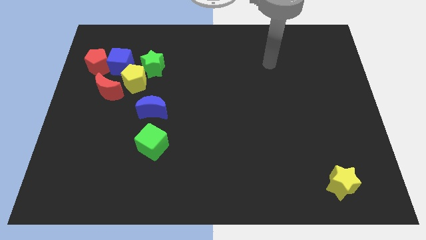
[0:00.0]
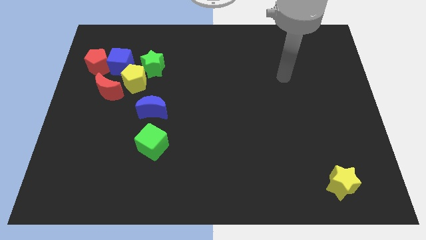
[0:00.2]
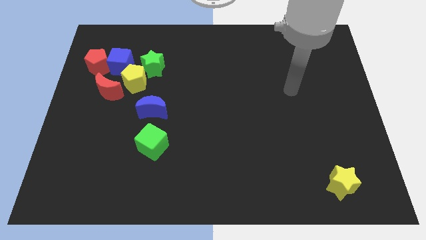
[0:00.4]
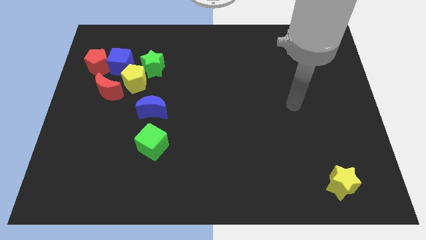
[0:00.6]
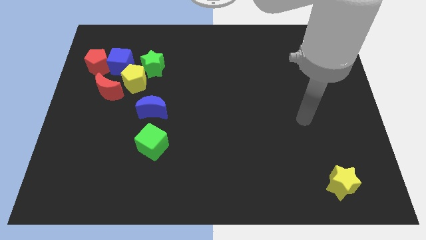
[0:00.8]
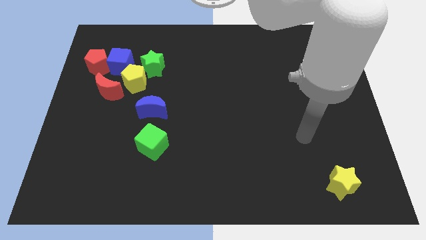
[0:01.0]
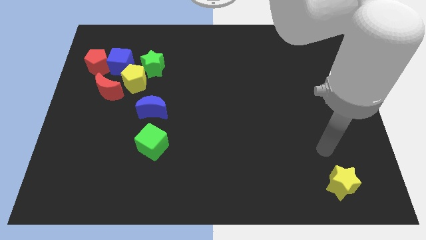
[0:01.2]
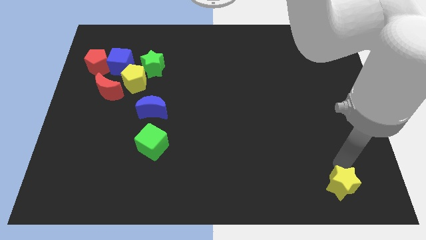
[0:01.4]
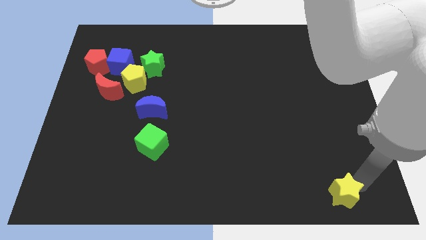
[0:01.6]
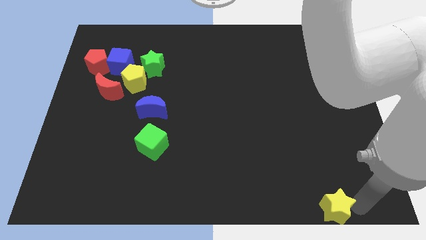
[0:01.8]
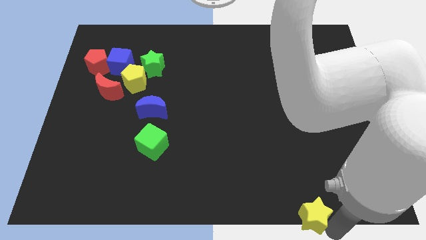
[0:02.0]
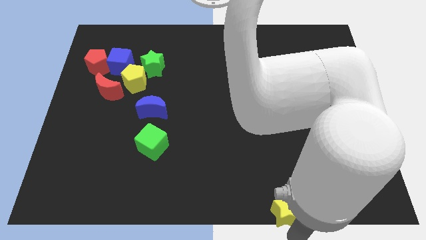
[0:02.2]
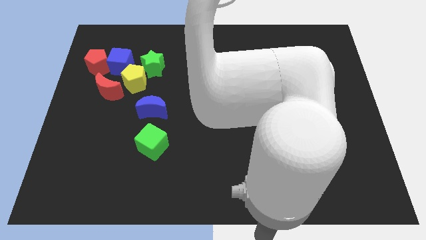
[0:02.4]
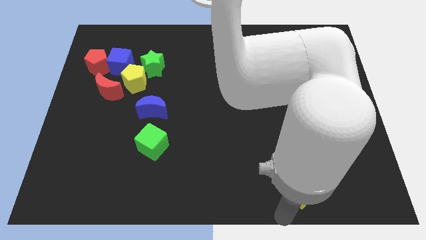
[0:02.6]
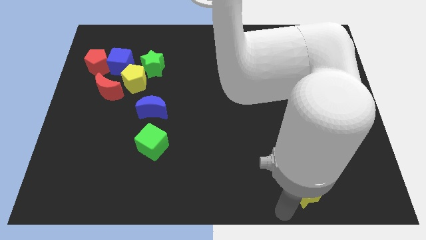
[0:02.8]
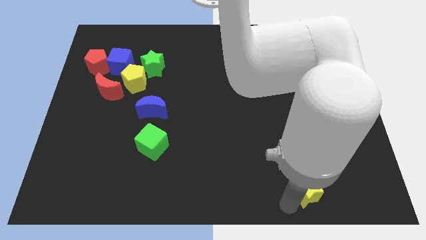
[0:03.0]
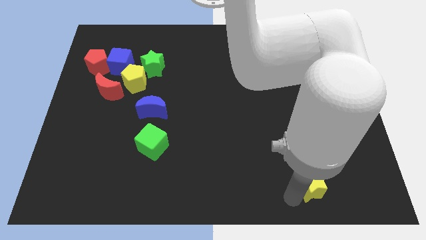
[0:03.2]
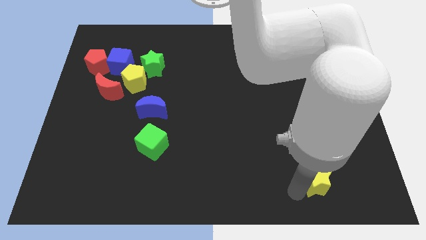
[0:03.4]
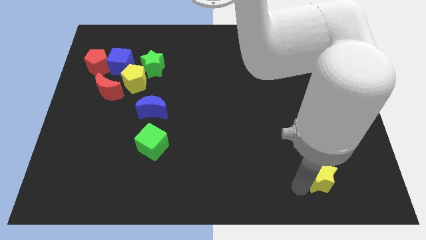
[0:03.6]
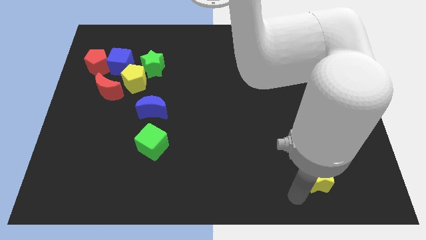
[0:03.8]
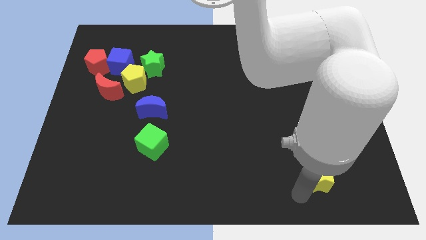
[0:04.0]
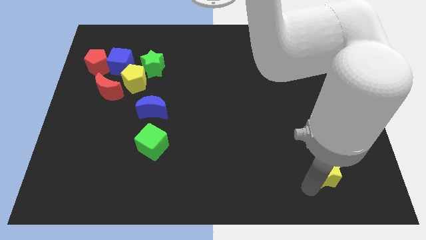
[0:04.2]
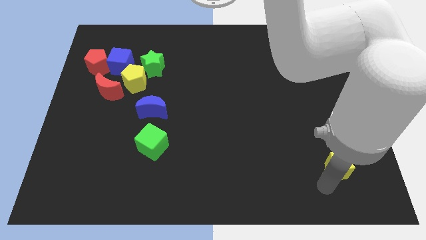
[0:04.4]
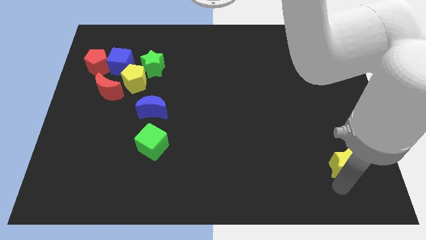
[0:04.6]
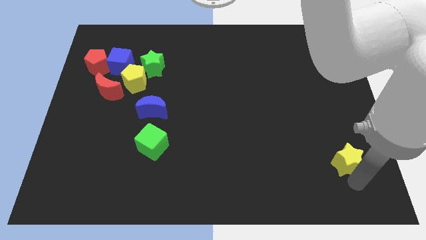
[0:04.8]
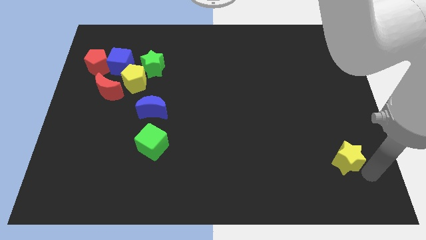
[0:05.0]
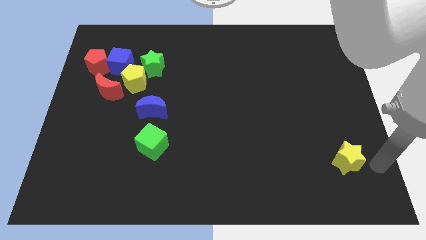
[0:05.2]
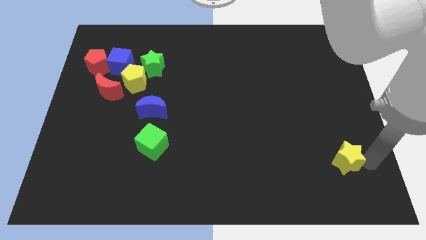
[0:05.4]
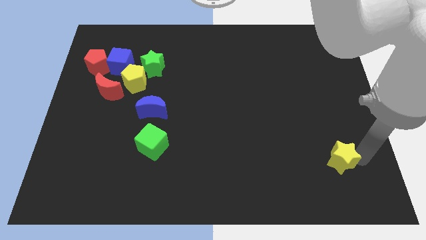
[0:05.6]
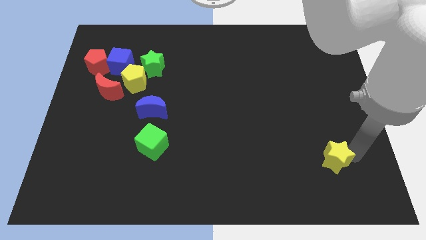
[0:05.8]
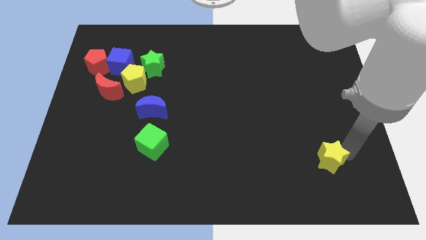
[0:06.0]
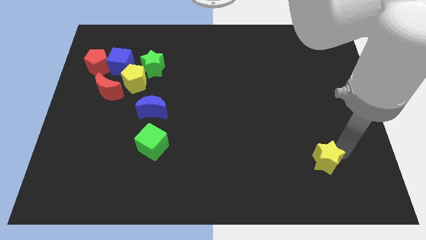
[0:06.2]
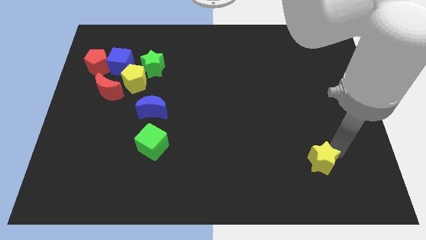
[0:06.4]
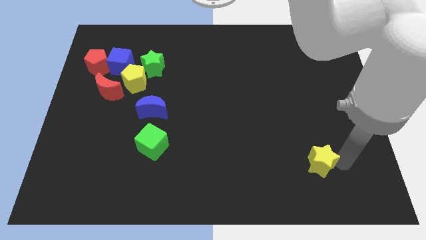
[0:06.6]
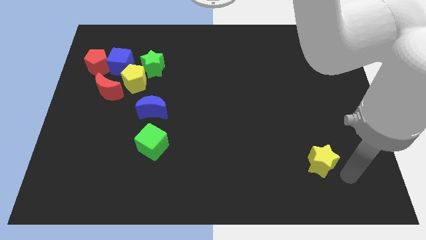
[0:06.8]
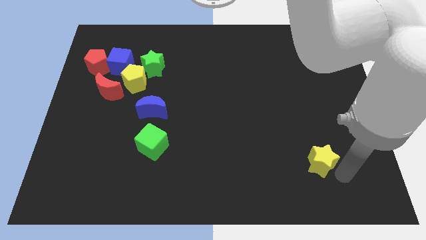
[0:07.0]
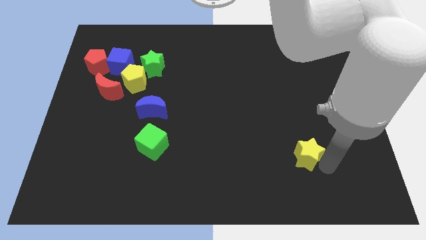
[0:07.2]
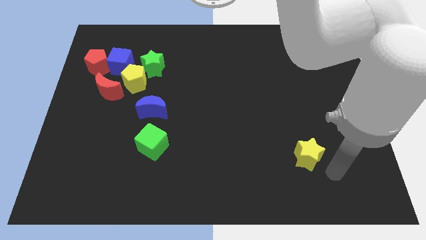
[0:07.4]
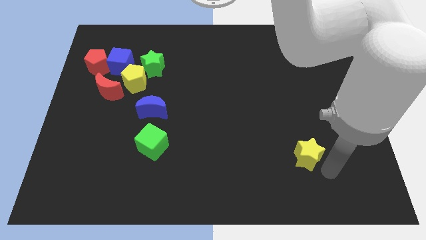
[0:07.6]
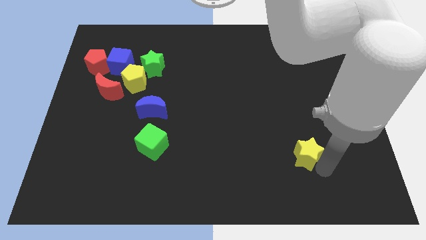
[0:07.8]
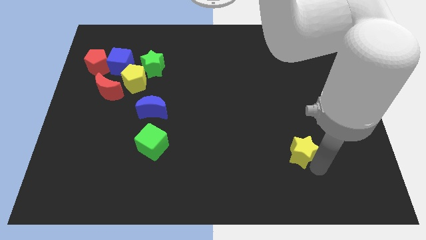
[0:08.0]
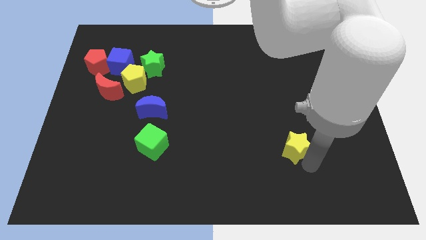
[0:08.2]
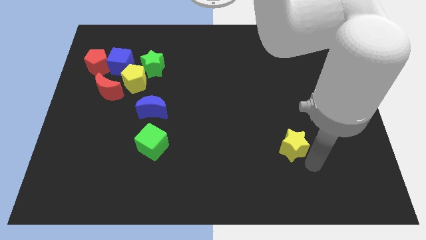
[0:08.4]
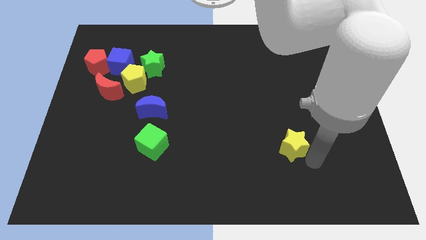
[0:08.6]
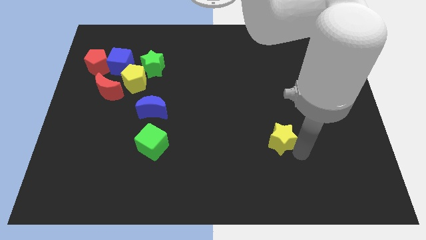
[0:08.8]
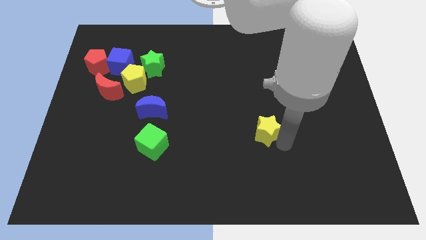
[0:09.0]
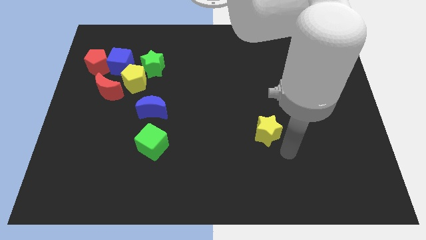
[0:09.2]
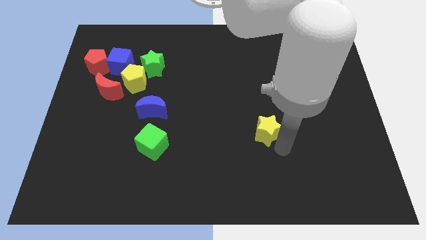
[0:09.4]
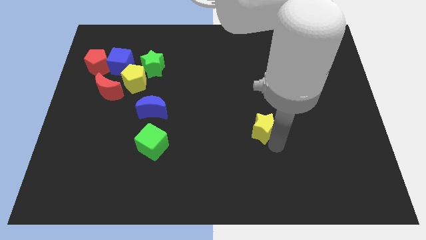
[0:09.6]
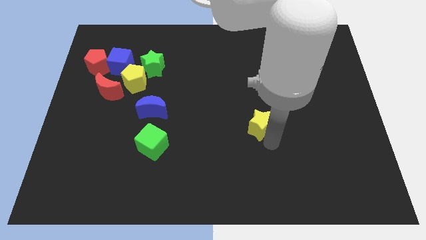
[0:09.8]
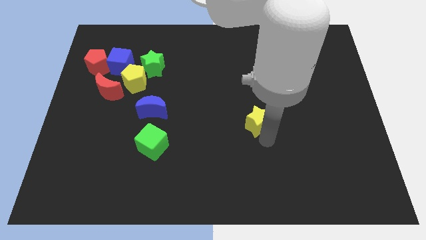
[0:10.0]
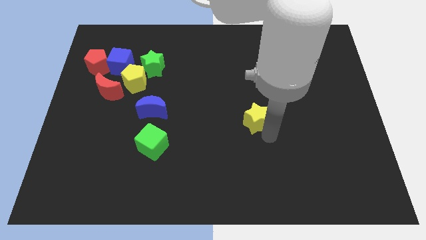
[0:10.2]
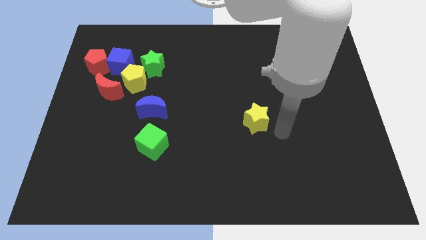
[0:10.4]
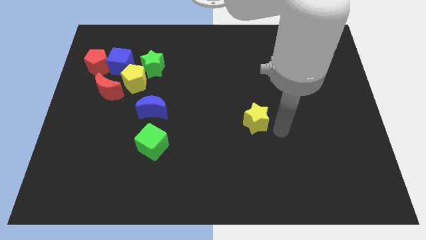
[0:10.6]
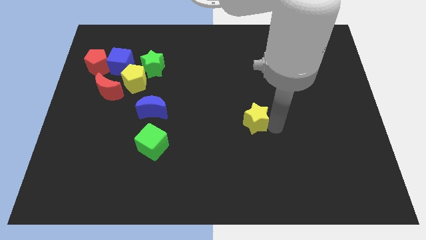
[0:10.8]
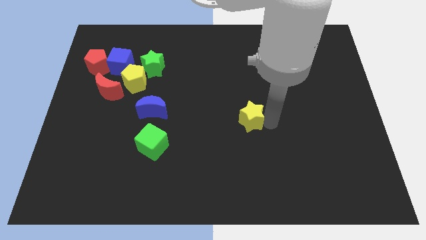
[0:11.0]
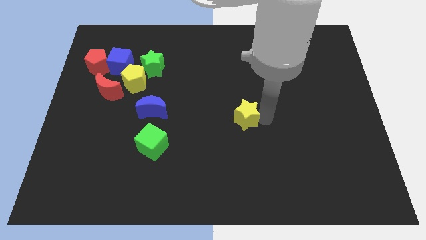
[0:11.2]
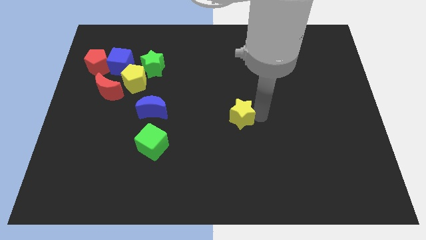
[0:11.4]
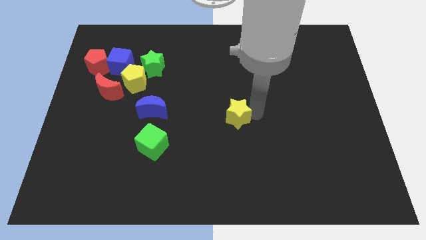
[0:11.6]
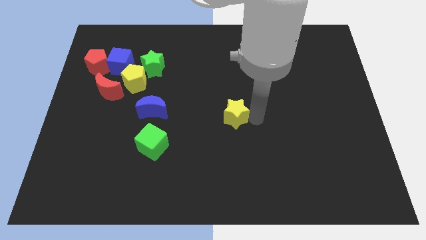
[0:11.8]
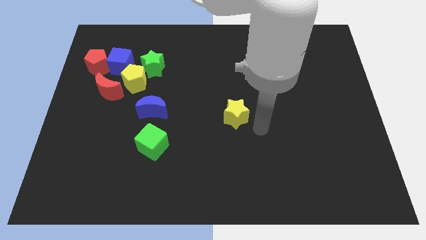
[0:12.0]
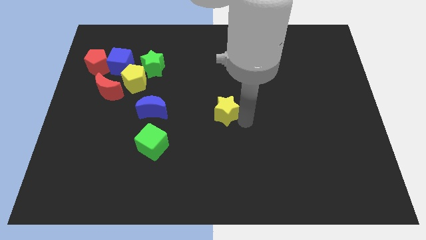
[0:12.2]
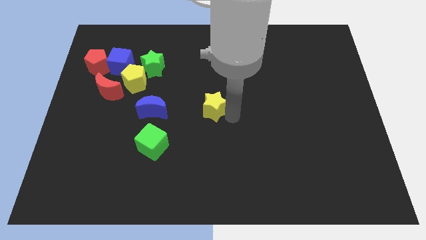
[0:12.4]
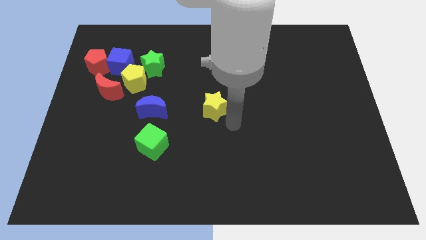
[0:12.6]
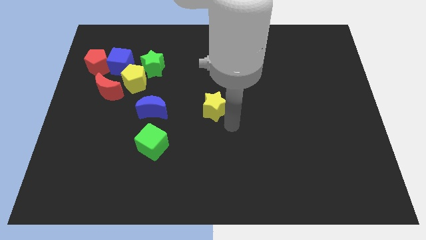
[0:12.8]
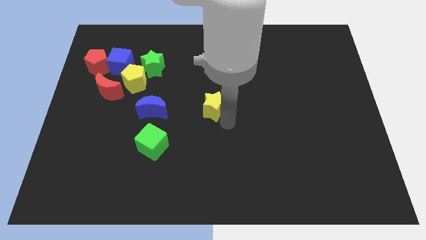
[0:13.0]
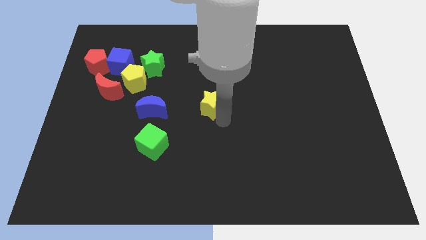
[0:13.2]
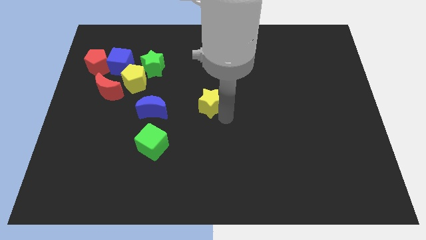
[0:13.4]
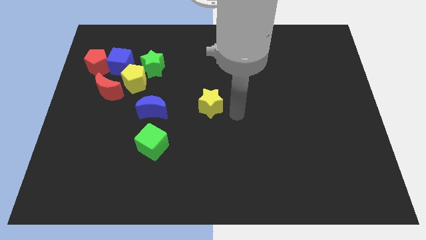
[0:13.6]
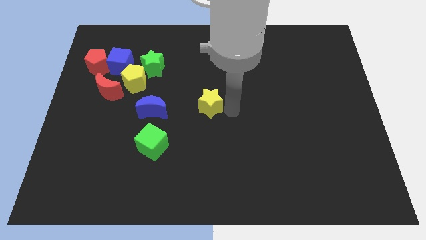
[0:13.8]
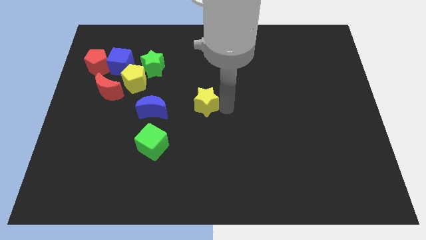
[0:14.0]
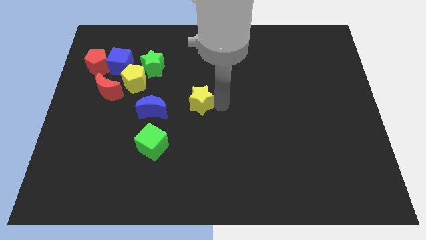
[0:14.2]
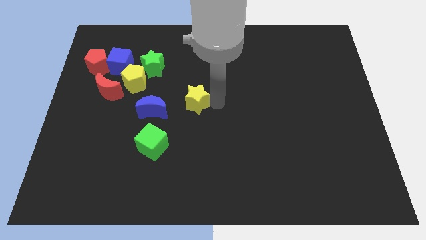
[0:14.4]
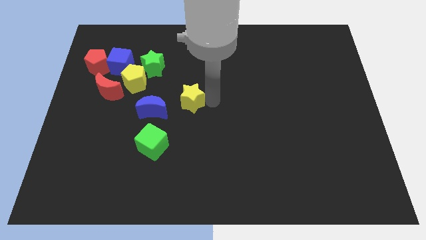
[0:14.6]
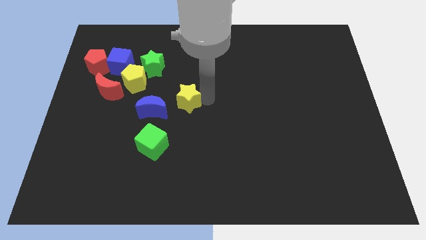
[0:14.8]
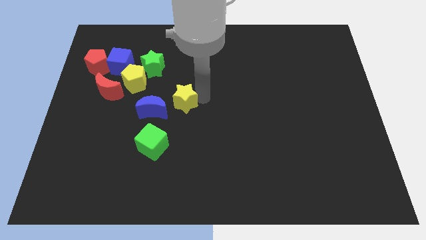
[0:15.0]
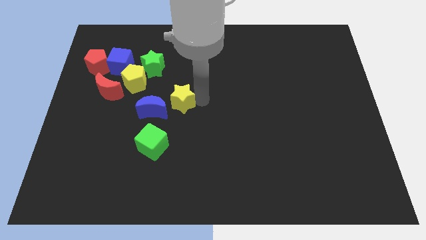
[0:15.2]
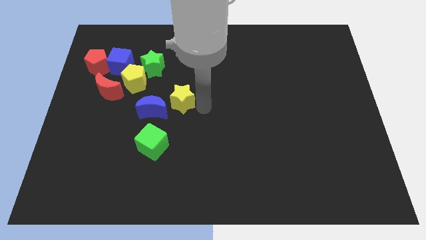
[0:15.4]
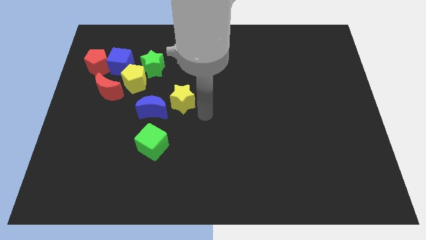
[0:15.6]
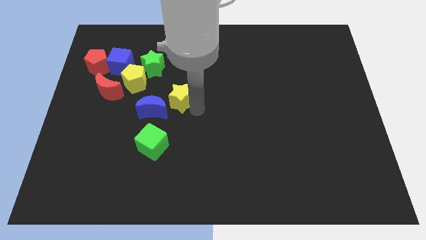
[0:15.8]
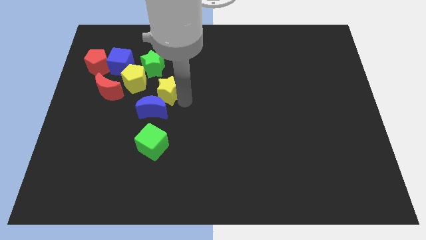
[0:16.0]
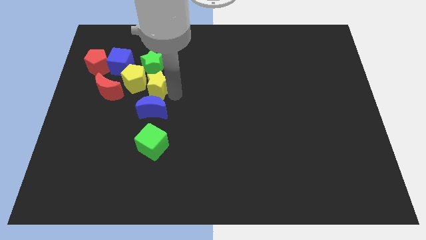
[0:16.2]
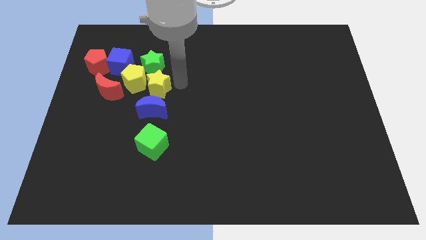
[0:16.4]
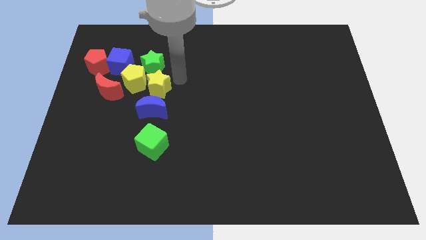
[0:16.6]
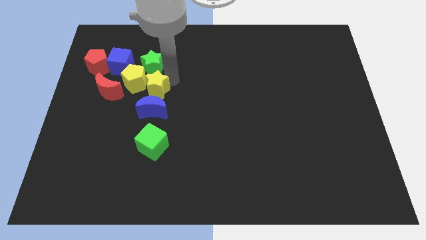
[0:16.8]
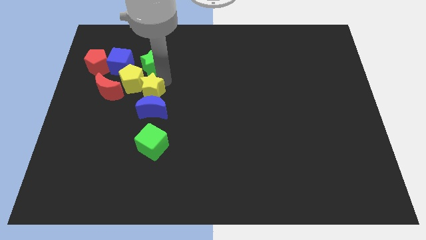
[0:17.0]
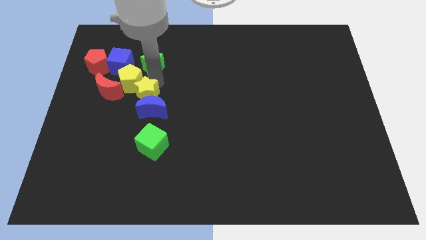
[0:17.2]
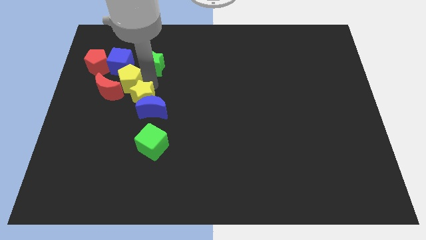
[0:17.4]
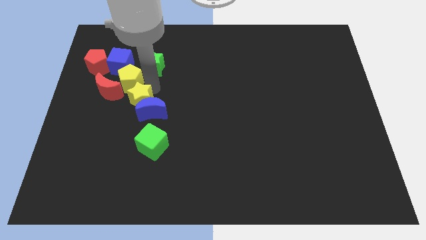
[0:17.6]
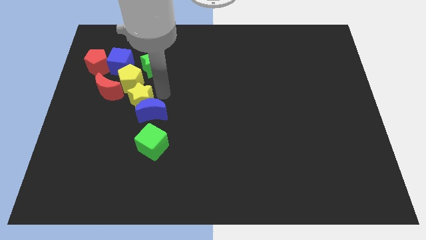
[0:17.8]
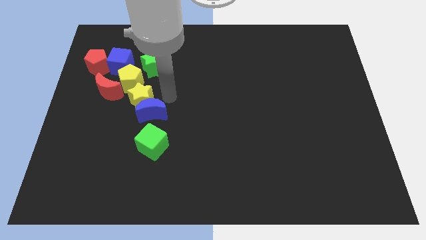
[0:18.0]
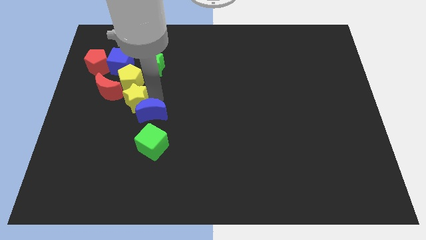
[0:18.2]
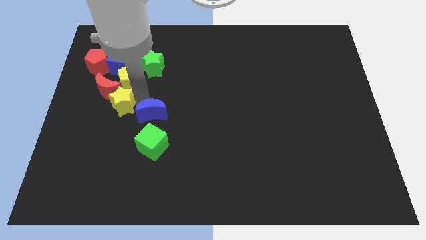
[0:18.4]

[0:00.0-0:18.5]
move the yellow star to the red moon
